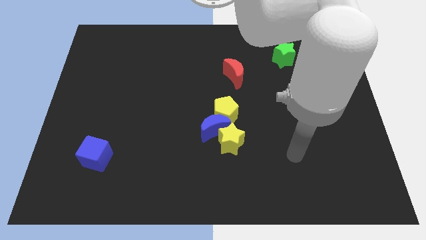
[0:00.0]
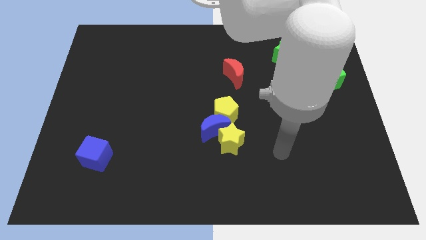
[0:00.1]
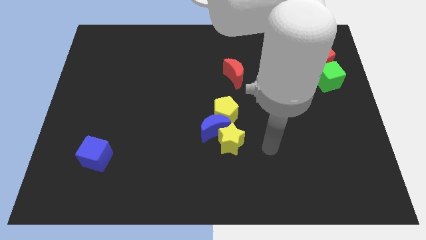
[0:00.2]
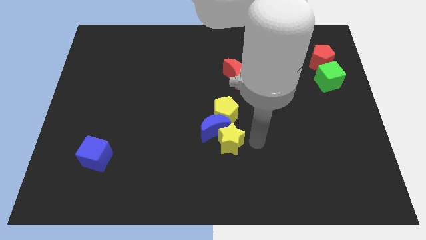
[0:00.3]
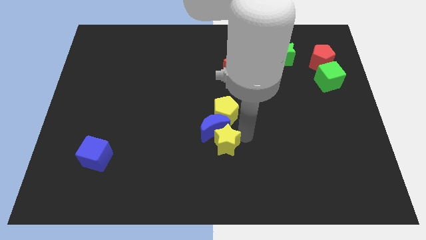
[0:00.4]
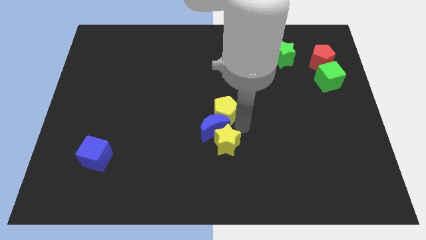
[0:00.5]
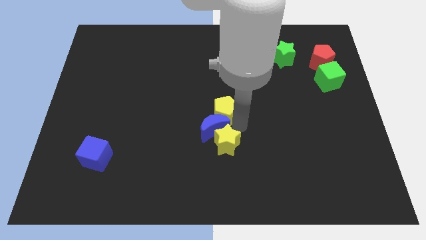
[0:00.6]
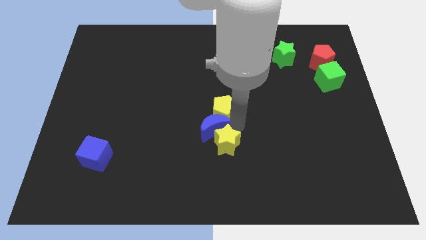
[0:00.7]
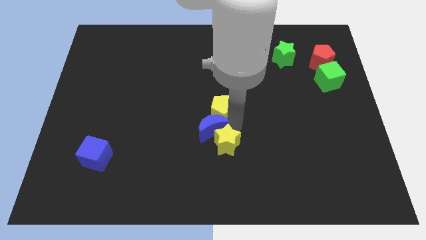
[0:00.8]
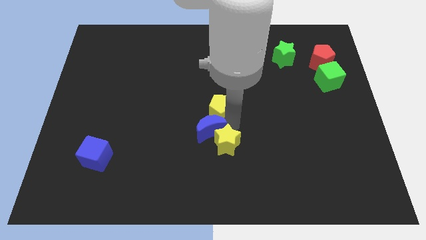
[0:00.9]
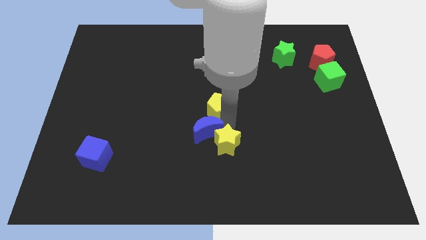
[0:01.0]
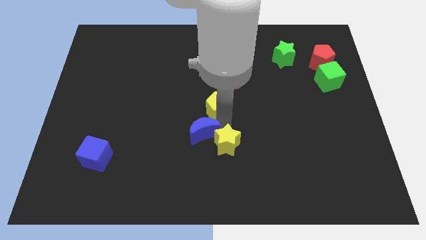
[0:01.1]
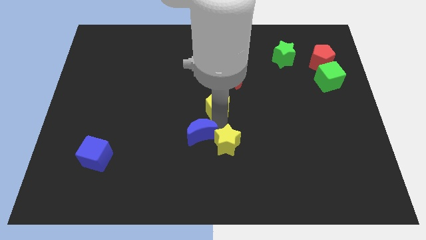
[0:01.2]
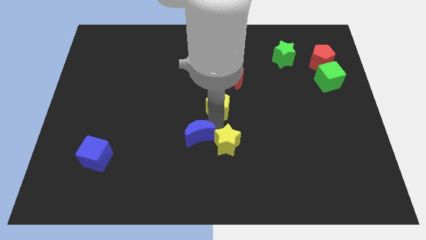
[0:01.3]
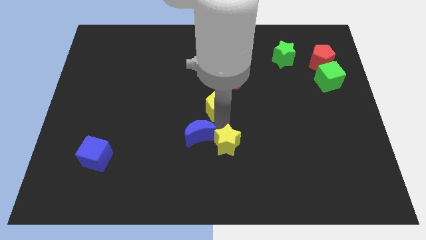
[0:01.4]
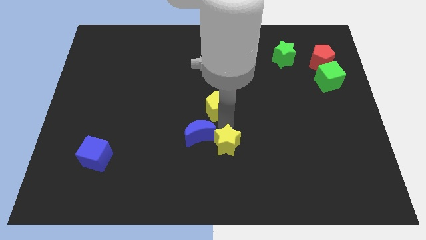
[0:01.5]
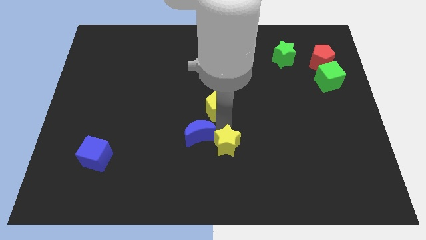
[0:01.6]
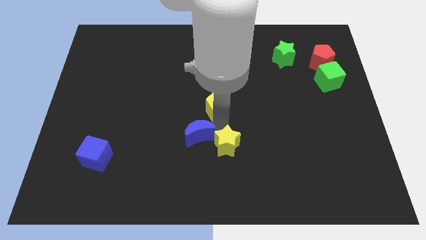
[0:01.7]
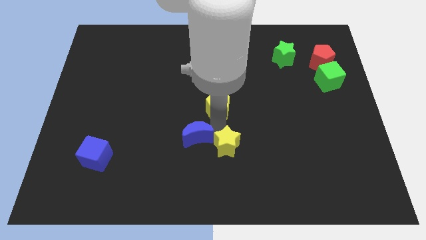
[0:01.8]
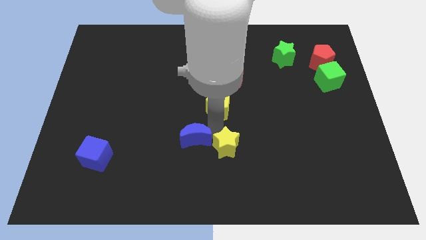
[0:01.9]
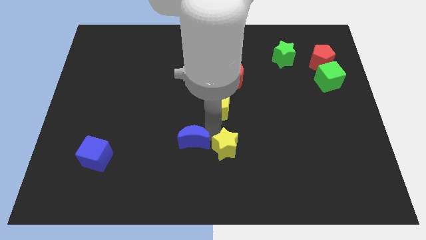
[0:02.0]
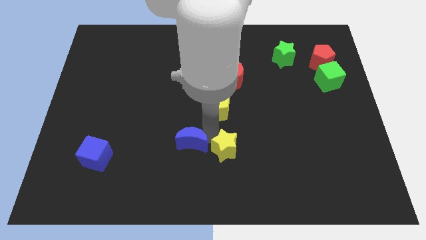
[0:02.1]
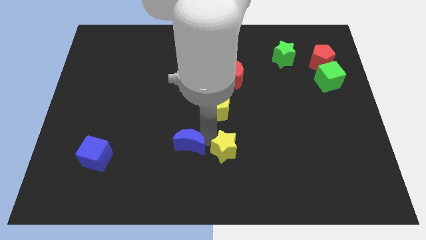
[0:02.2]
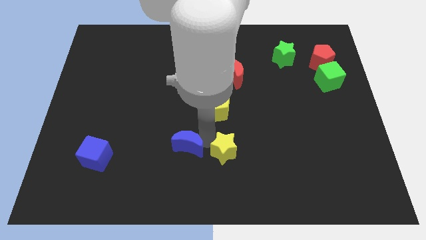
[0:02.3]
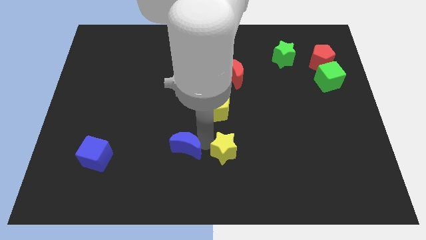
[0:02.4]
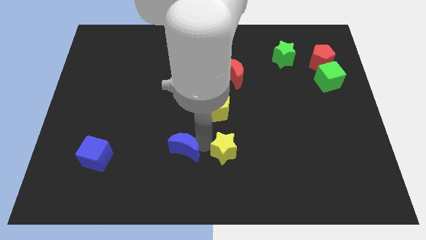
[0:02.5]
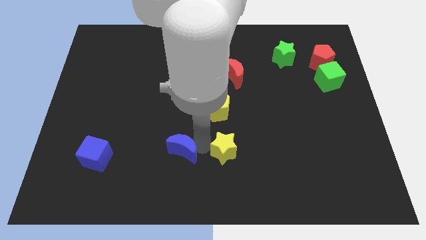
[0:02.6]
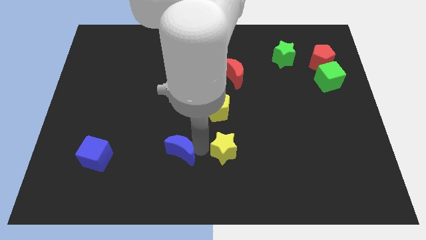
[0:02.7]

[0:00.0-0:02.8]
separate the blue moon from the yellow pentagon and yellow star

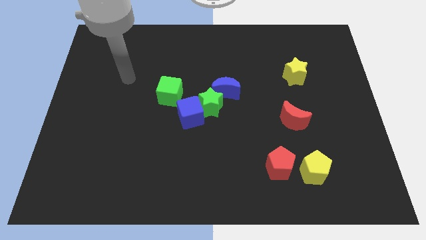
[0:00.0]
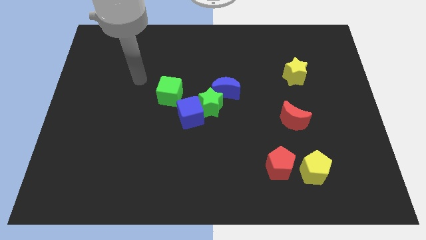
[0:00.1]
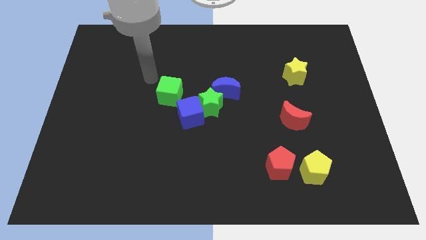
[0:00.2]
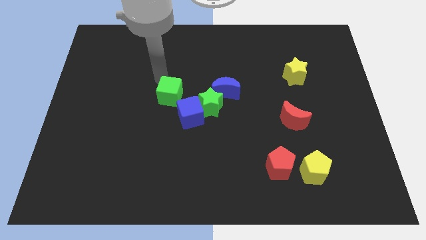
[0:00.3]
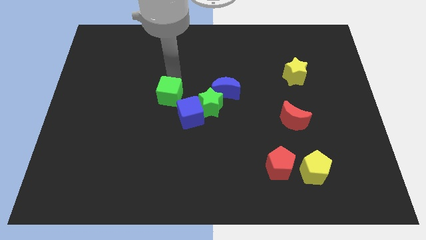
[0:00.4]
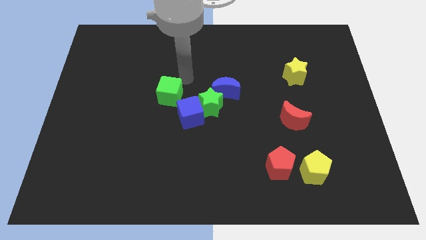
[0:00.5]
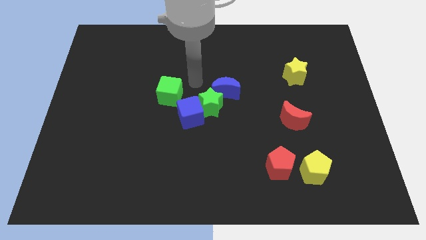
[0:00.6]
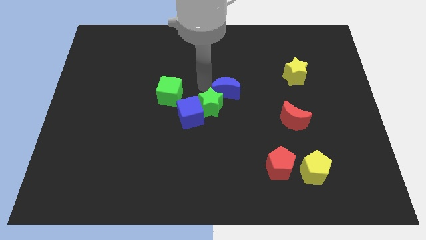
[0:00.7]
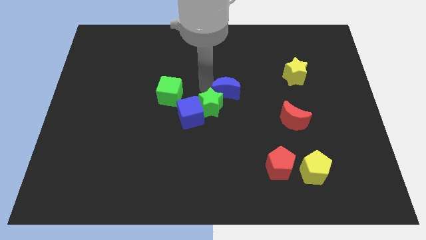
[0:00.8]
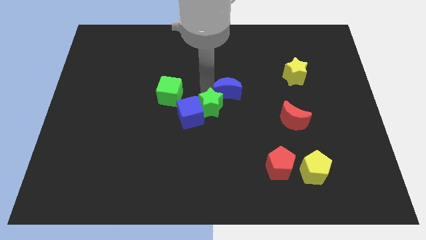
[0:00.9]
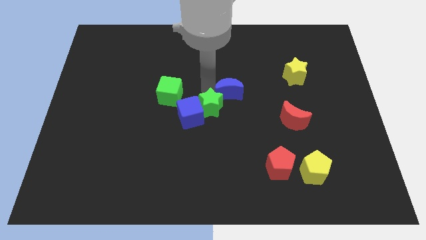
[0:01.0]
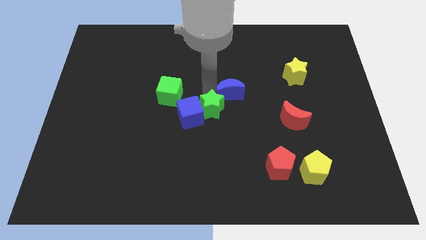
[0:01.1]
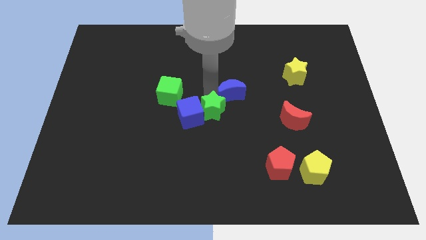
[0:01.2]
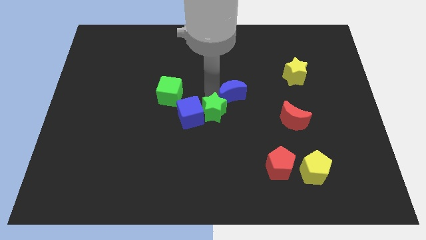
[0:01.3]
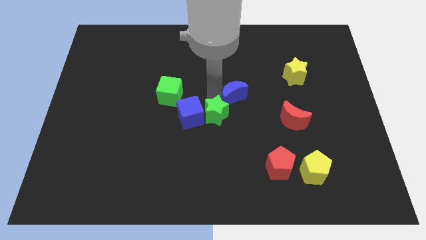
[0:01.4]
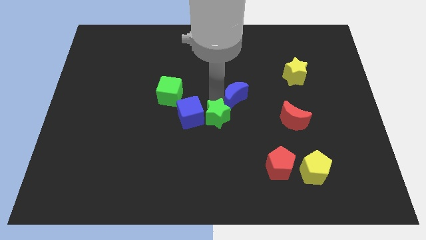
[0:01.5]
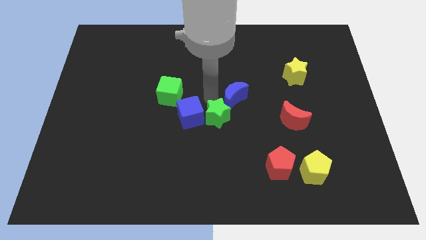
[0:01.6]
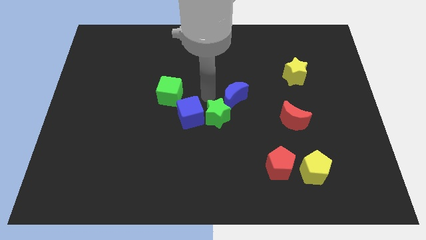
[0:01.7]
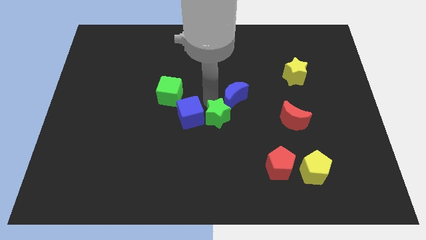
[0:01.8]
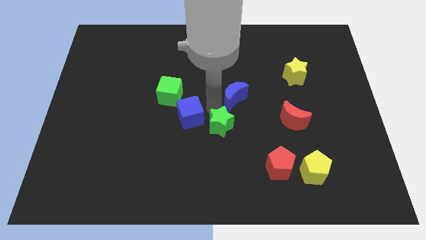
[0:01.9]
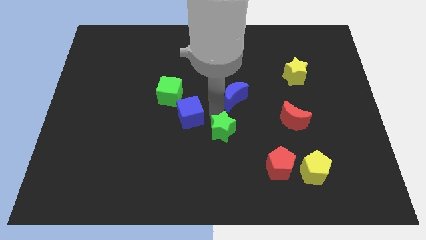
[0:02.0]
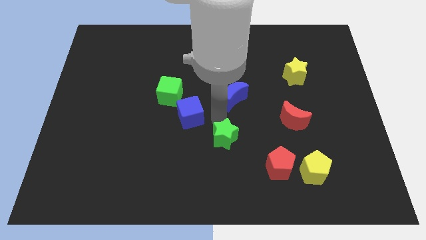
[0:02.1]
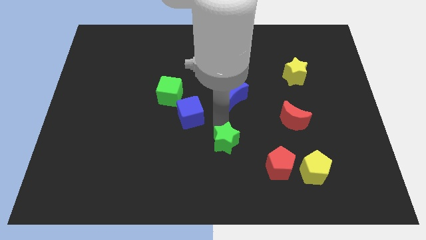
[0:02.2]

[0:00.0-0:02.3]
move the green star away from the blue cube and blue moon

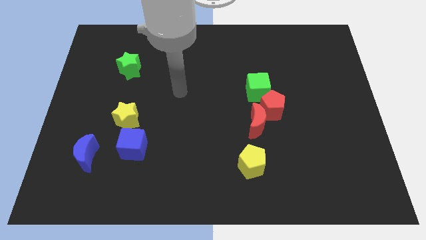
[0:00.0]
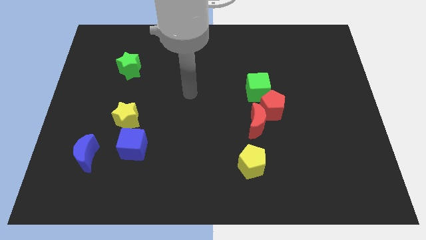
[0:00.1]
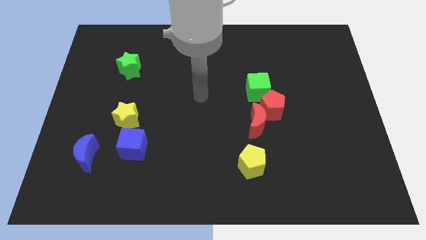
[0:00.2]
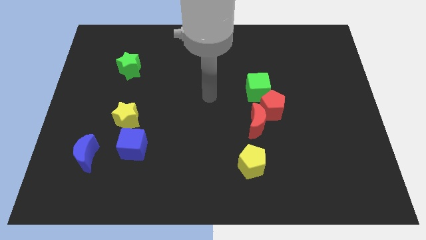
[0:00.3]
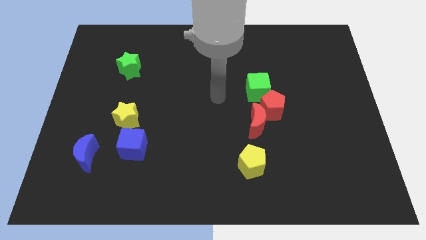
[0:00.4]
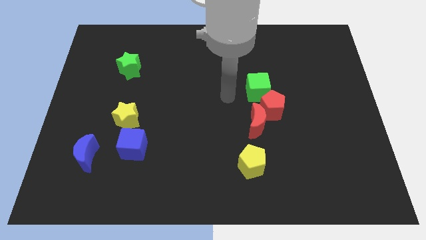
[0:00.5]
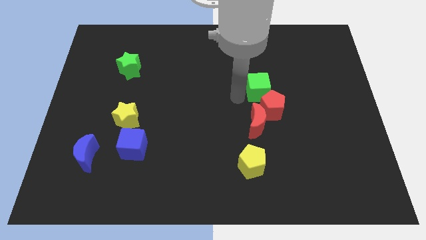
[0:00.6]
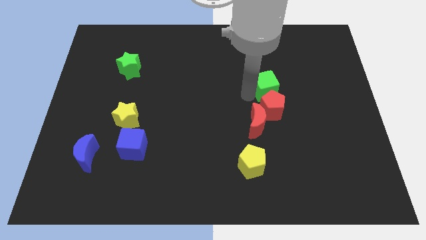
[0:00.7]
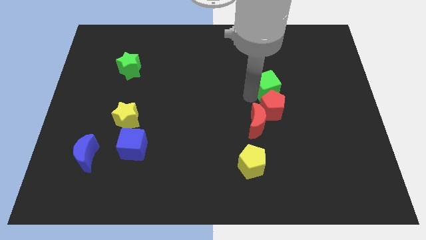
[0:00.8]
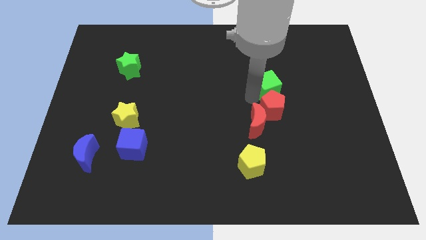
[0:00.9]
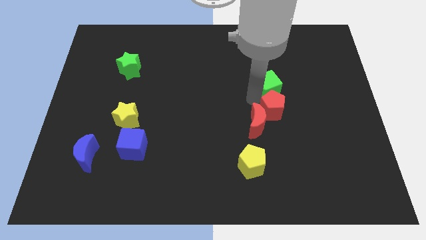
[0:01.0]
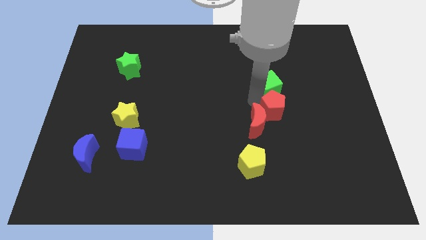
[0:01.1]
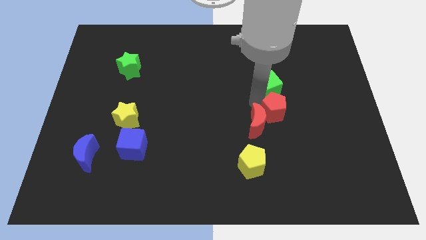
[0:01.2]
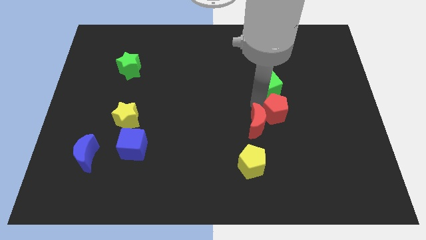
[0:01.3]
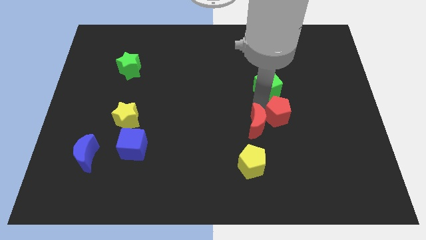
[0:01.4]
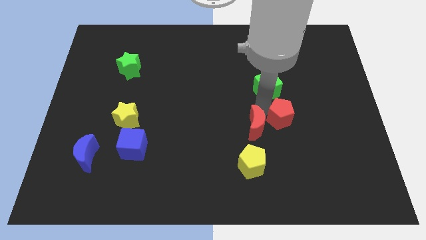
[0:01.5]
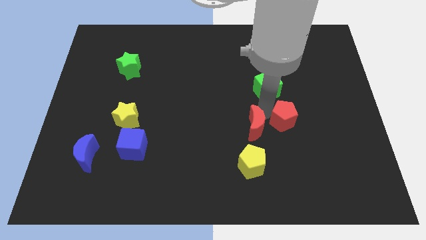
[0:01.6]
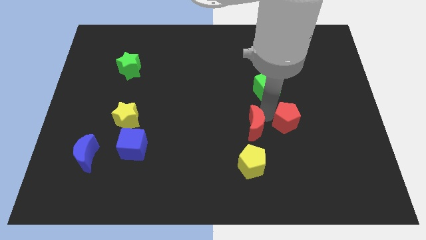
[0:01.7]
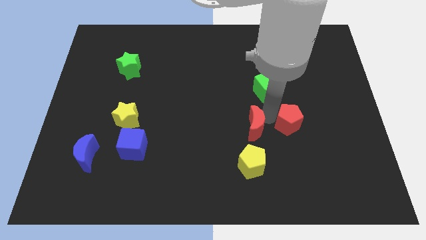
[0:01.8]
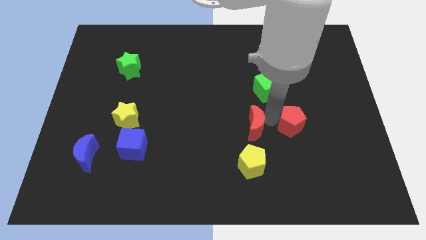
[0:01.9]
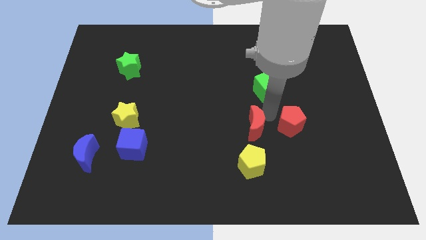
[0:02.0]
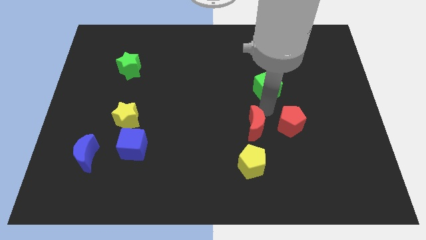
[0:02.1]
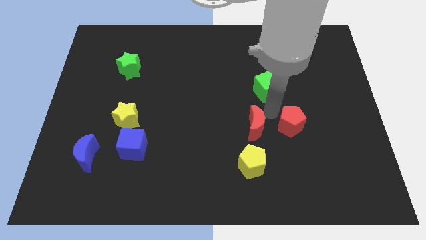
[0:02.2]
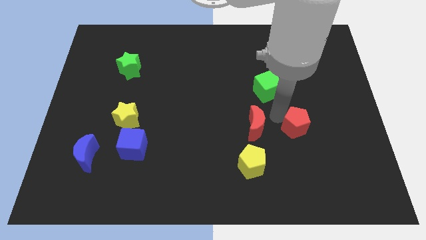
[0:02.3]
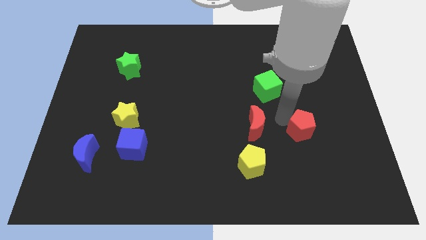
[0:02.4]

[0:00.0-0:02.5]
separate the red pentagon from the red moon and green cube

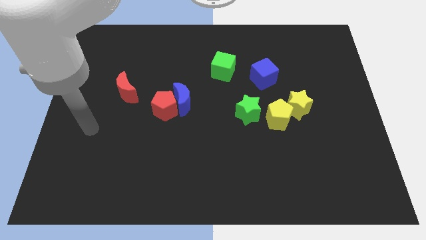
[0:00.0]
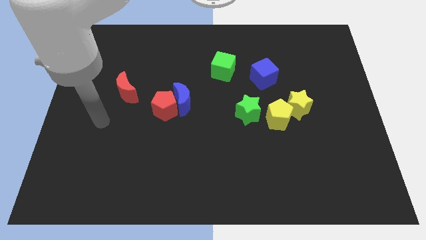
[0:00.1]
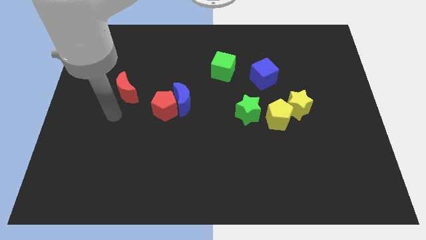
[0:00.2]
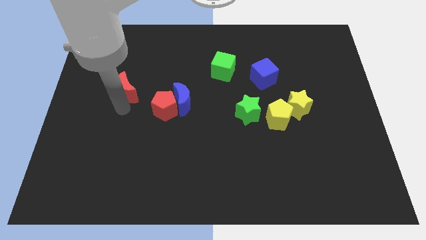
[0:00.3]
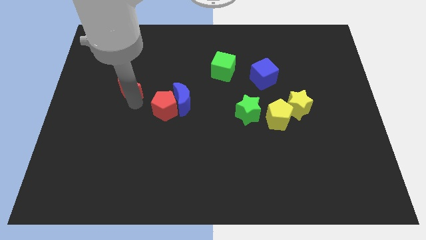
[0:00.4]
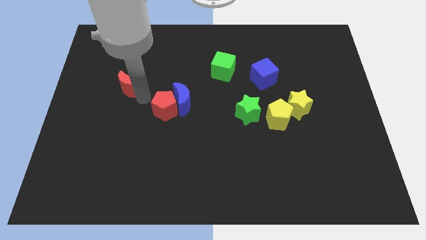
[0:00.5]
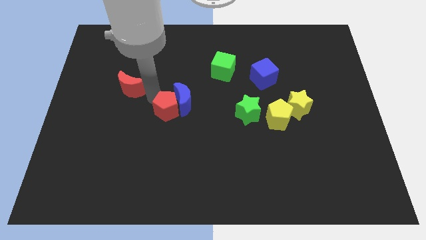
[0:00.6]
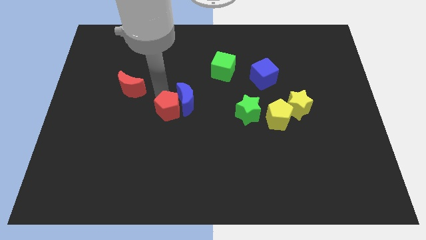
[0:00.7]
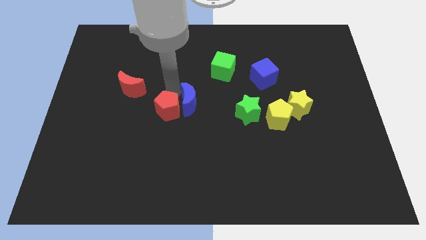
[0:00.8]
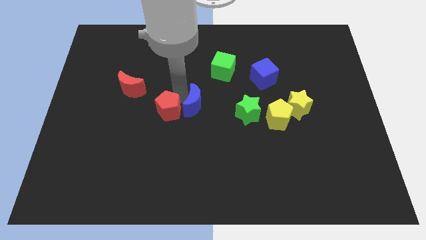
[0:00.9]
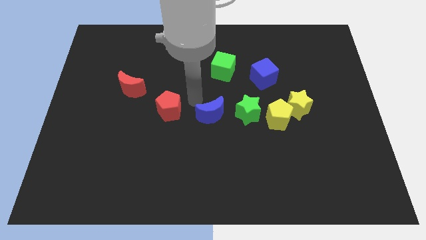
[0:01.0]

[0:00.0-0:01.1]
move the red pentagon away from the blue moon

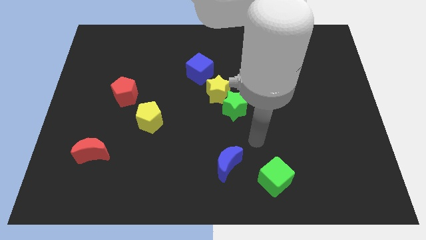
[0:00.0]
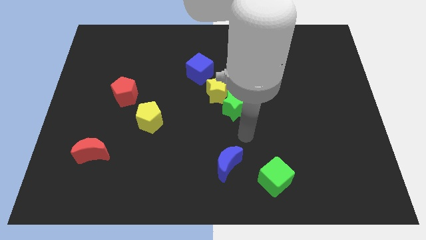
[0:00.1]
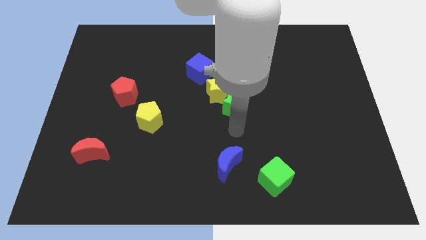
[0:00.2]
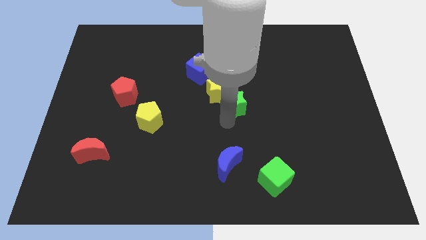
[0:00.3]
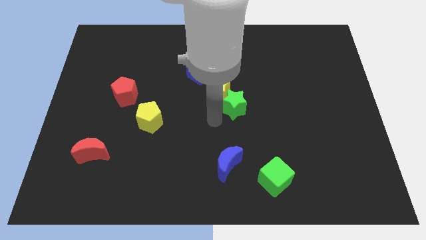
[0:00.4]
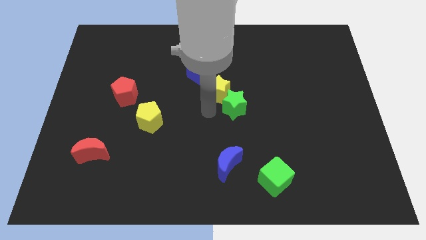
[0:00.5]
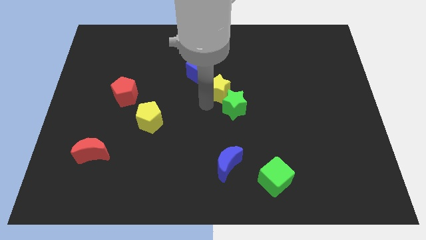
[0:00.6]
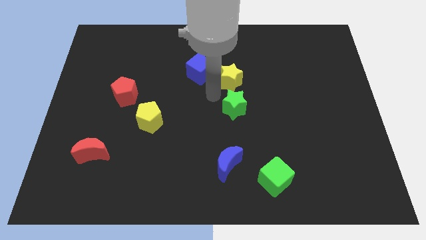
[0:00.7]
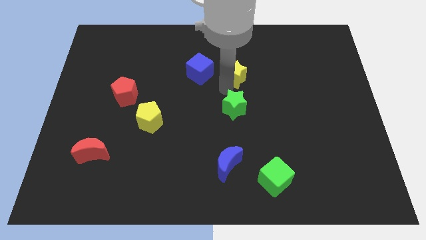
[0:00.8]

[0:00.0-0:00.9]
pull the green star apart from the yellow star
